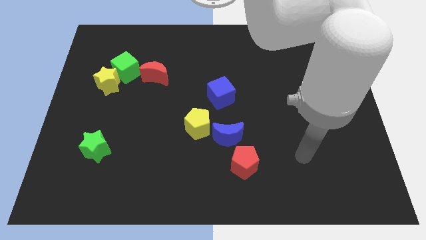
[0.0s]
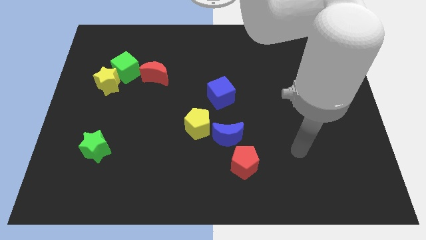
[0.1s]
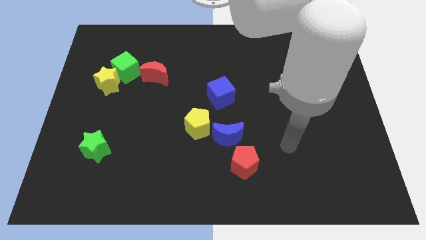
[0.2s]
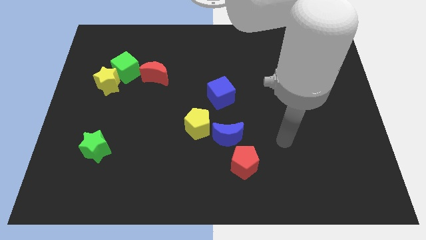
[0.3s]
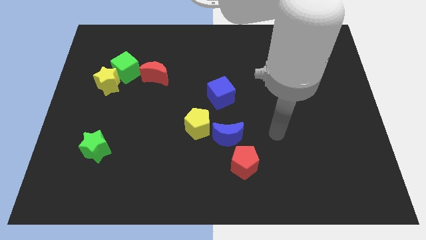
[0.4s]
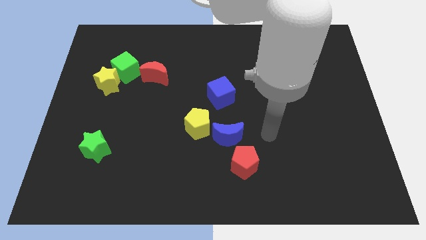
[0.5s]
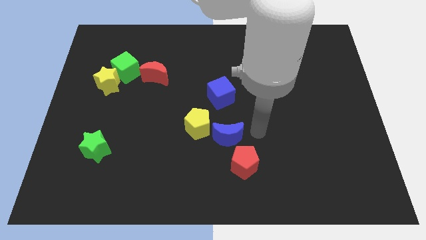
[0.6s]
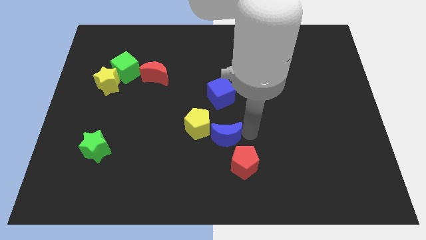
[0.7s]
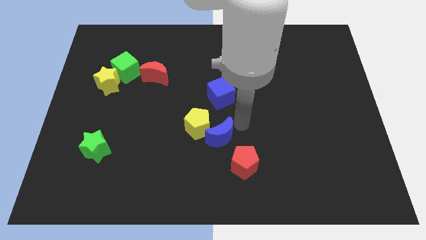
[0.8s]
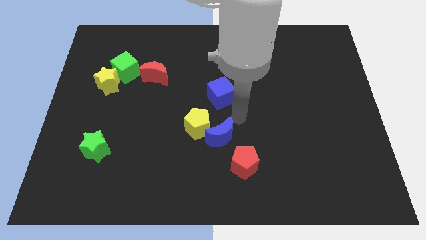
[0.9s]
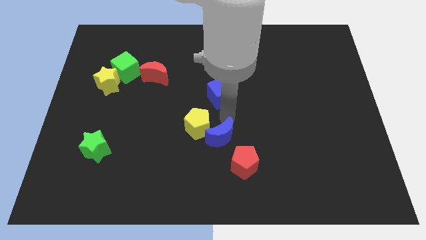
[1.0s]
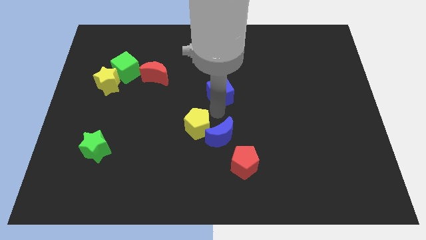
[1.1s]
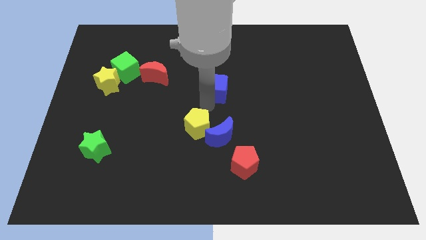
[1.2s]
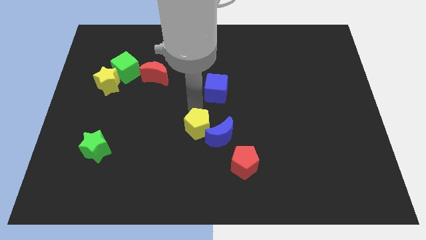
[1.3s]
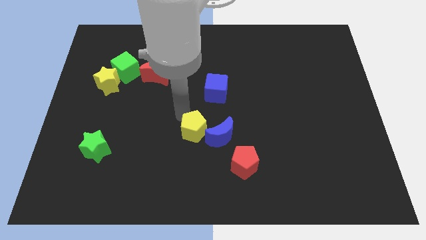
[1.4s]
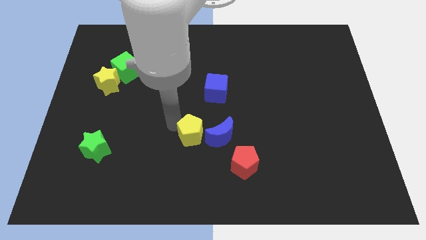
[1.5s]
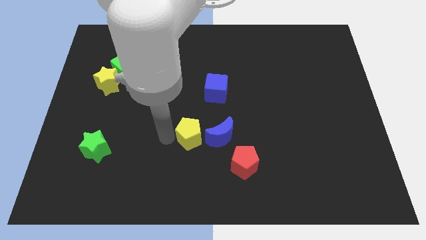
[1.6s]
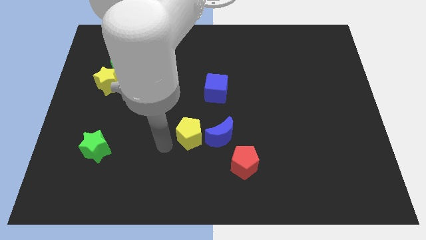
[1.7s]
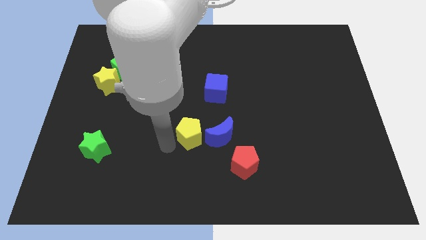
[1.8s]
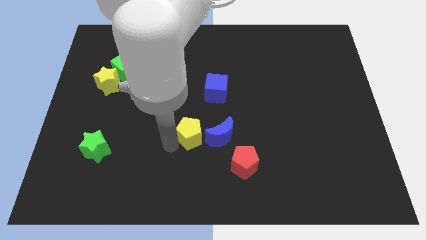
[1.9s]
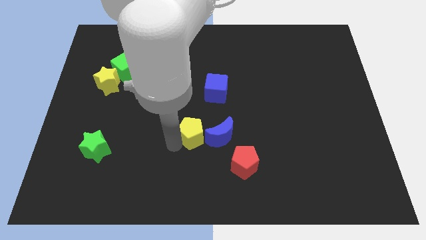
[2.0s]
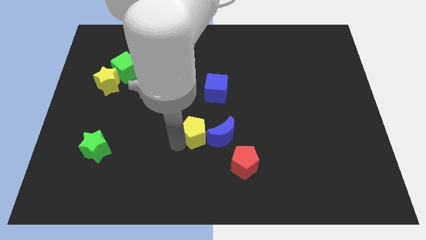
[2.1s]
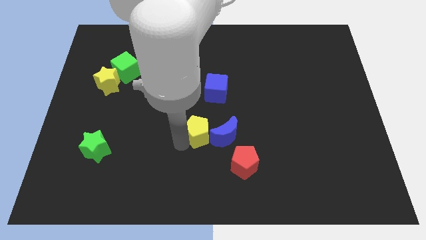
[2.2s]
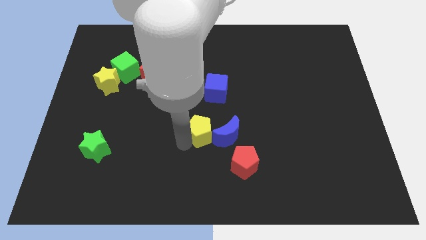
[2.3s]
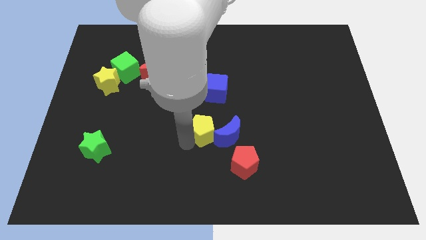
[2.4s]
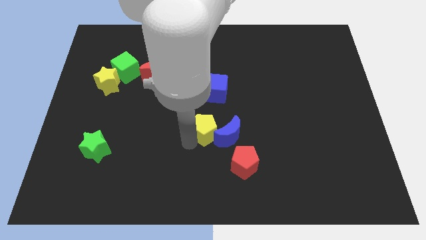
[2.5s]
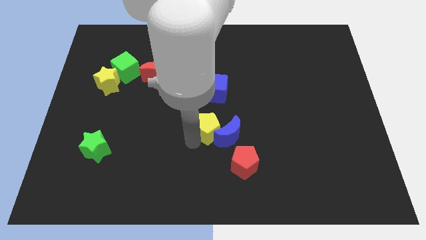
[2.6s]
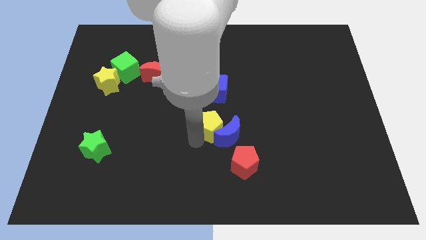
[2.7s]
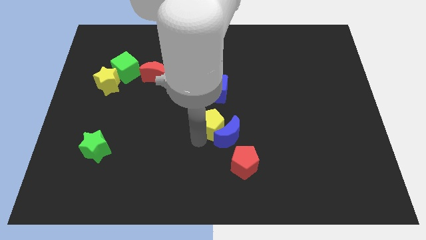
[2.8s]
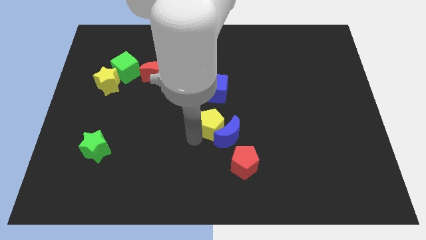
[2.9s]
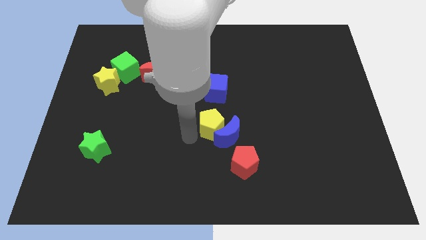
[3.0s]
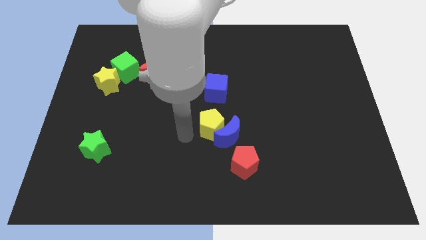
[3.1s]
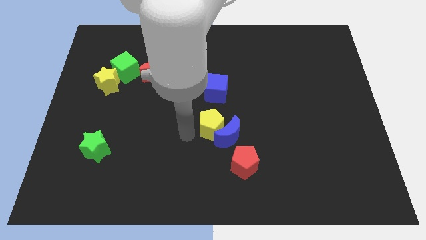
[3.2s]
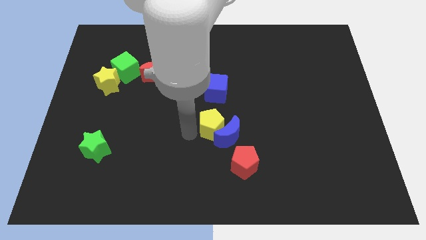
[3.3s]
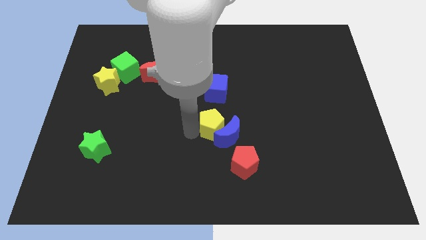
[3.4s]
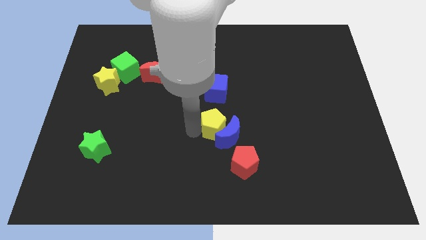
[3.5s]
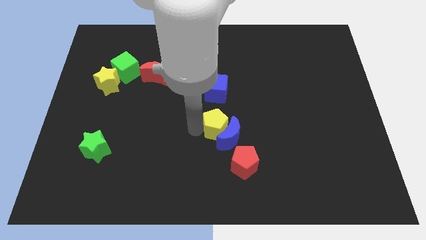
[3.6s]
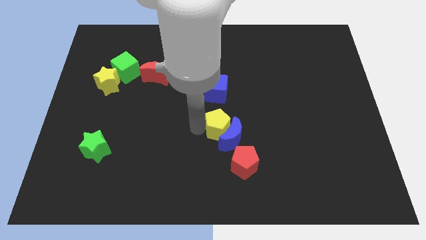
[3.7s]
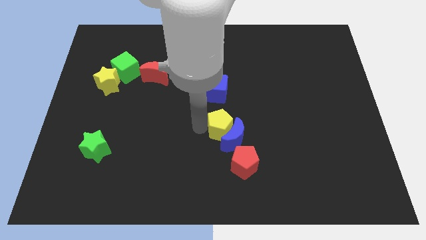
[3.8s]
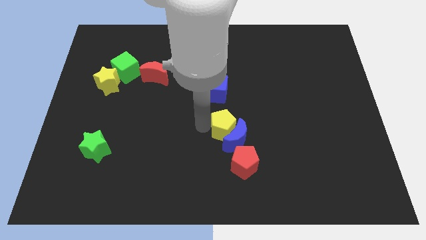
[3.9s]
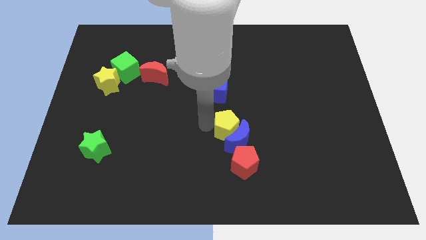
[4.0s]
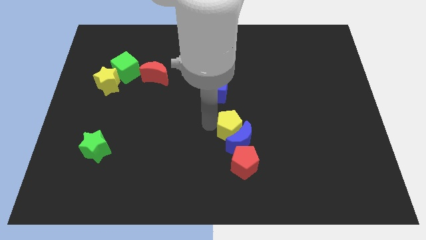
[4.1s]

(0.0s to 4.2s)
slide the yellow pentagon right slightly

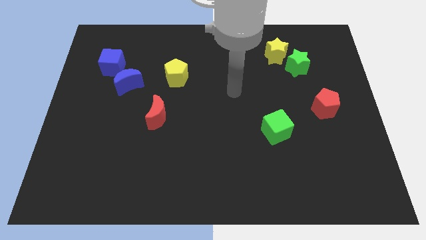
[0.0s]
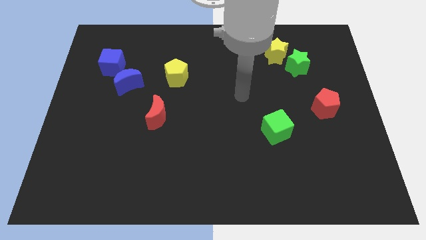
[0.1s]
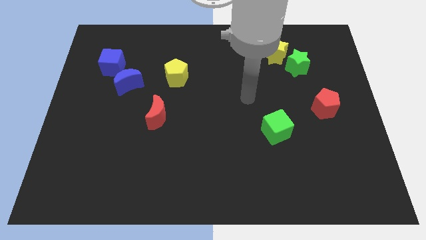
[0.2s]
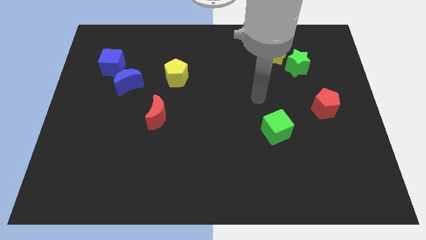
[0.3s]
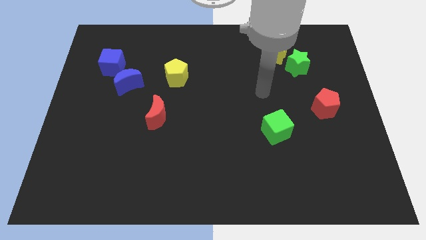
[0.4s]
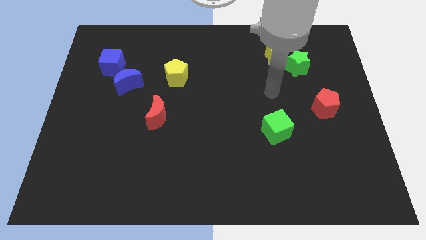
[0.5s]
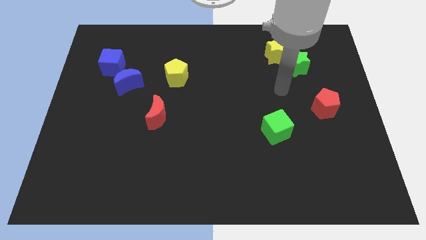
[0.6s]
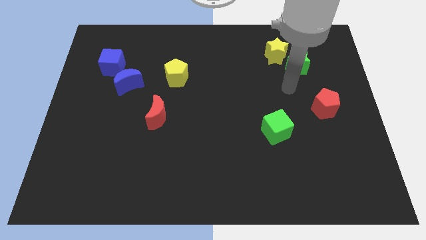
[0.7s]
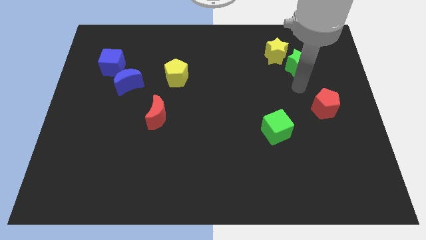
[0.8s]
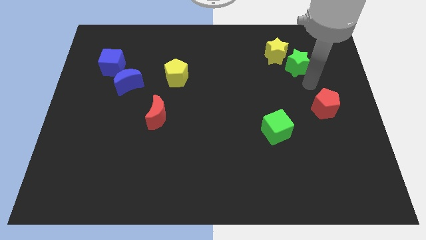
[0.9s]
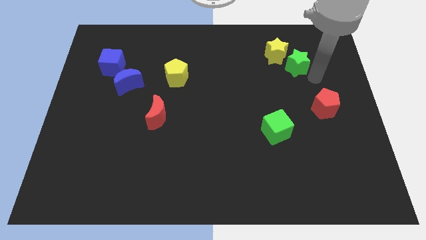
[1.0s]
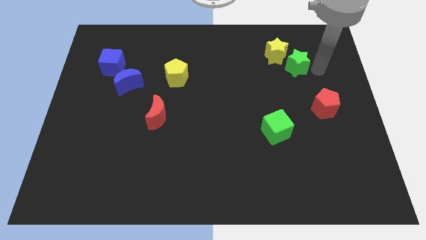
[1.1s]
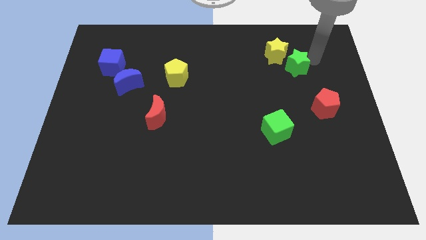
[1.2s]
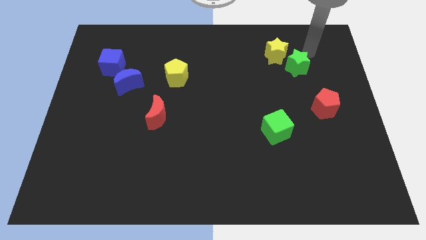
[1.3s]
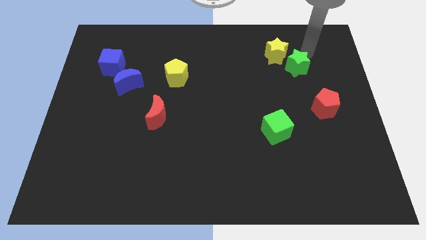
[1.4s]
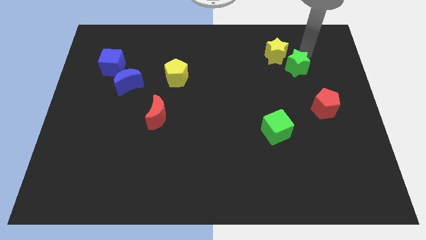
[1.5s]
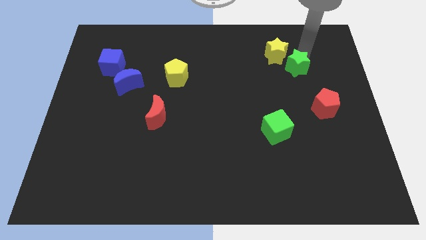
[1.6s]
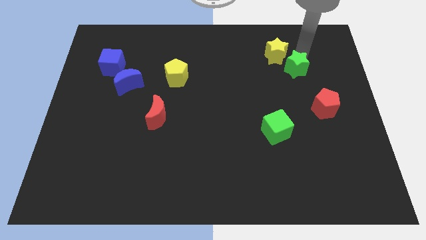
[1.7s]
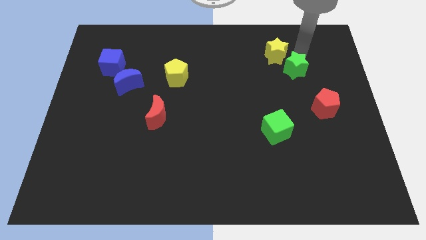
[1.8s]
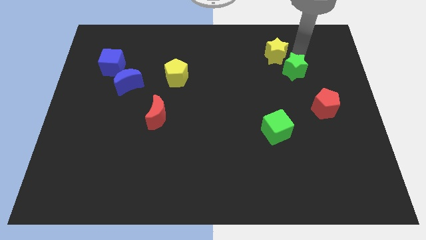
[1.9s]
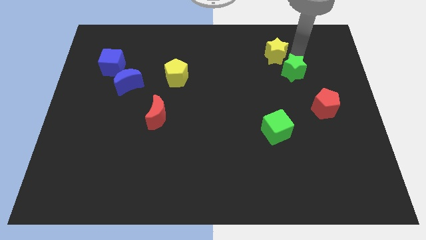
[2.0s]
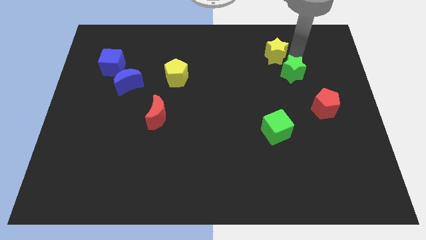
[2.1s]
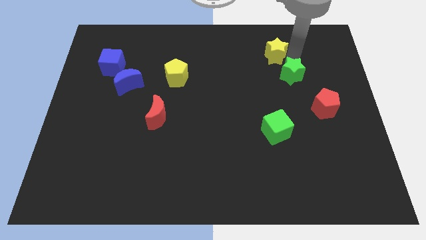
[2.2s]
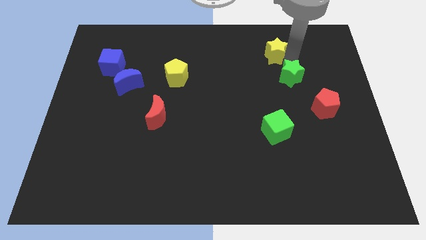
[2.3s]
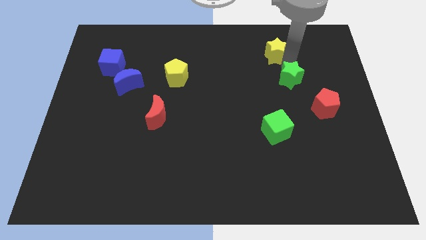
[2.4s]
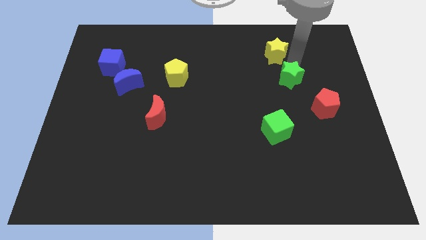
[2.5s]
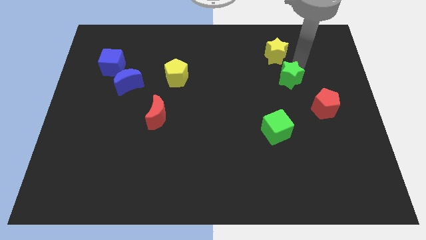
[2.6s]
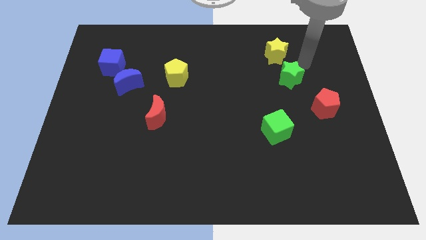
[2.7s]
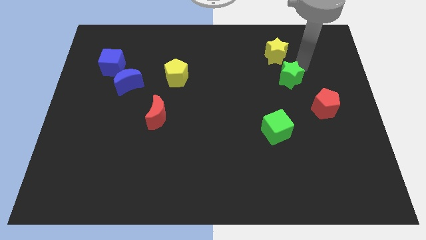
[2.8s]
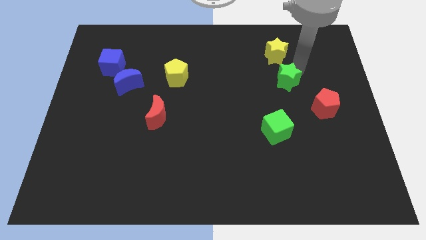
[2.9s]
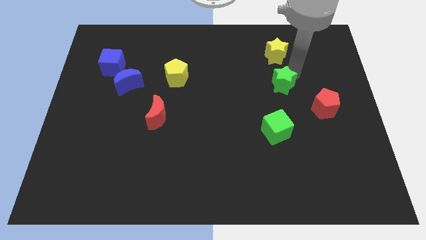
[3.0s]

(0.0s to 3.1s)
slide the green star diagonally down and to the left a bit

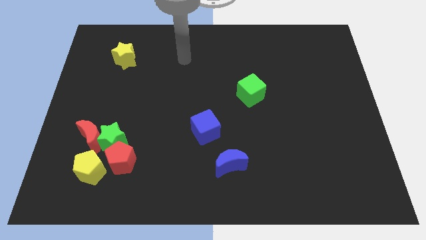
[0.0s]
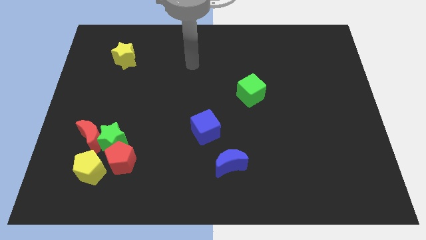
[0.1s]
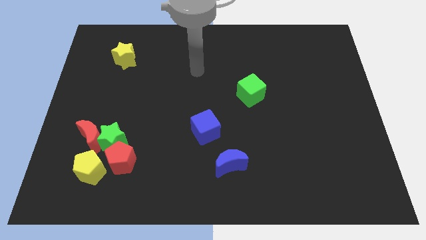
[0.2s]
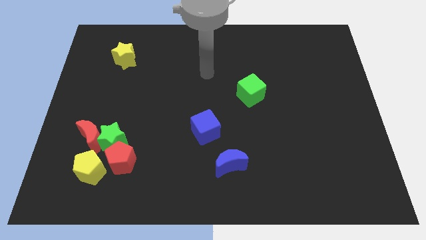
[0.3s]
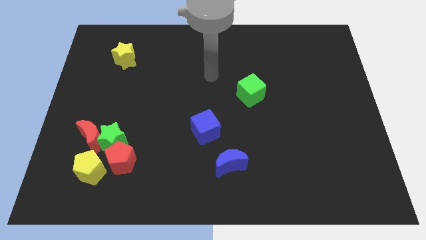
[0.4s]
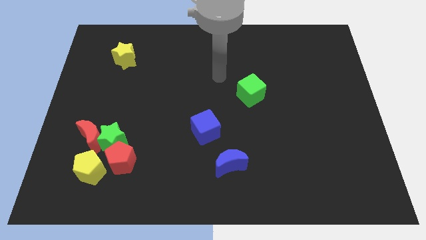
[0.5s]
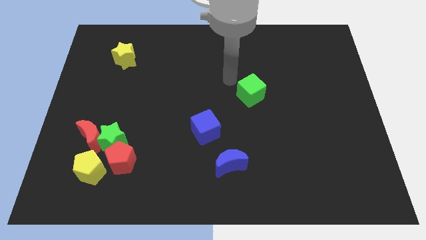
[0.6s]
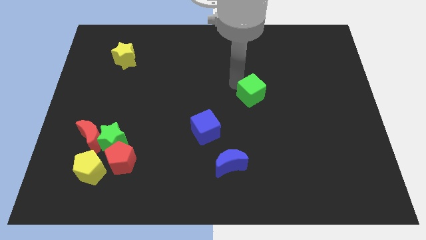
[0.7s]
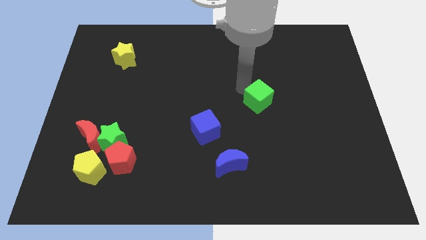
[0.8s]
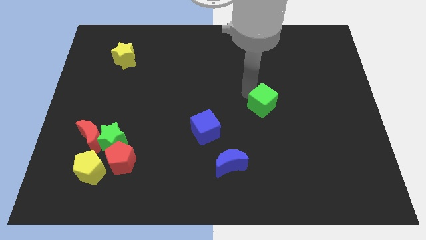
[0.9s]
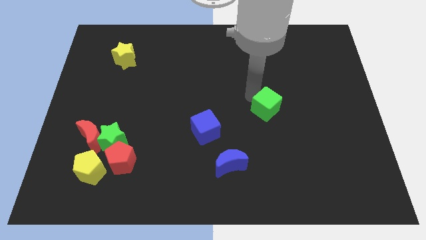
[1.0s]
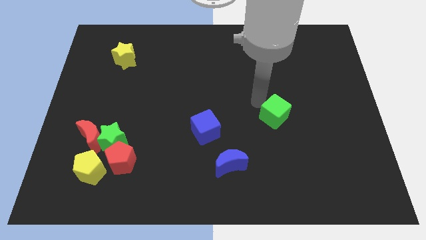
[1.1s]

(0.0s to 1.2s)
push the green cube a little down and right diagonally
